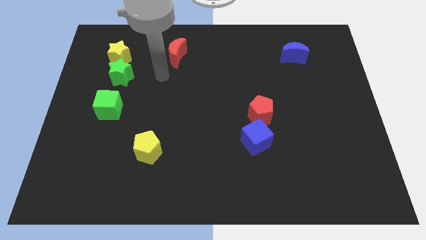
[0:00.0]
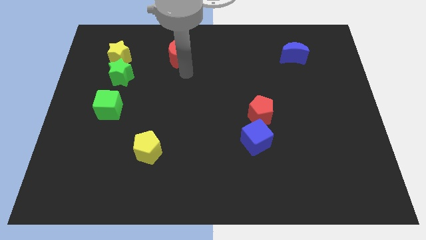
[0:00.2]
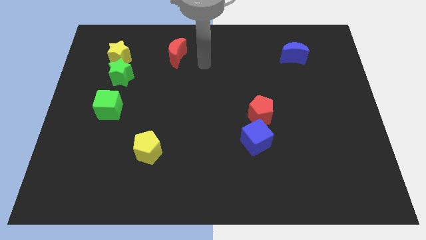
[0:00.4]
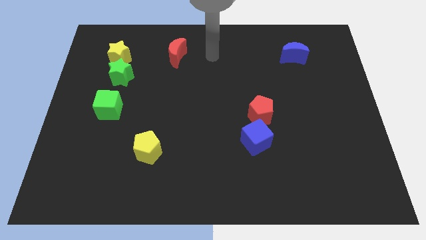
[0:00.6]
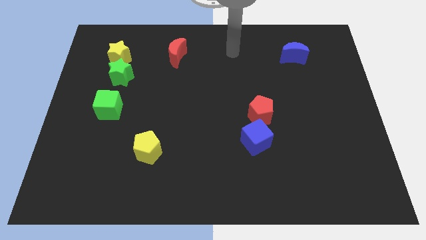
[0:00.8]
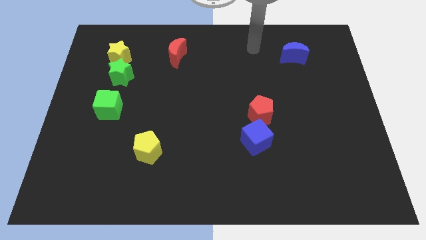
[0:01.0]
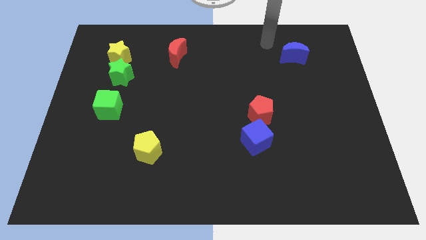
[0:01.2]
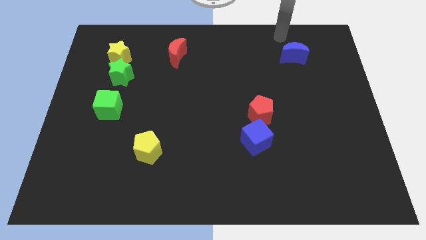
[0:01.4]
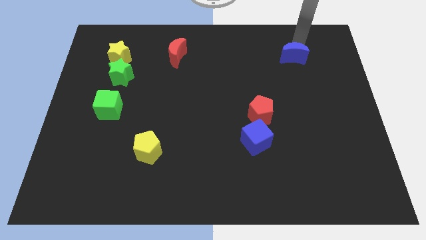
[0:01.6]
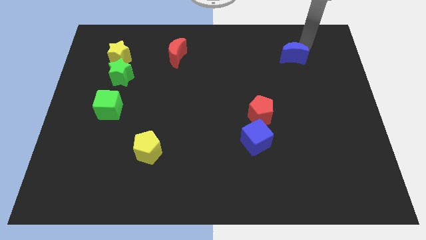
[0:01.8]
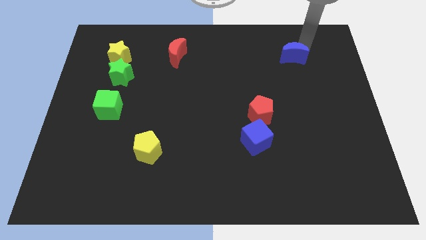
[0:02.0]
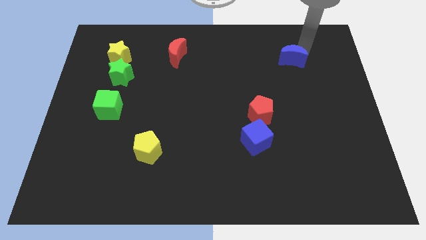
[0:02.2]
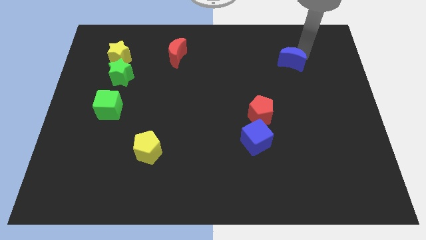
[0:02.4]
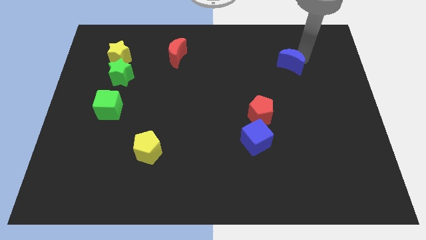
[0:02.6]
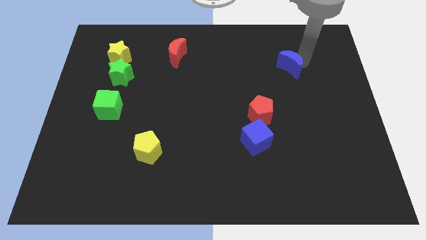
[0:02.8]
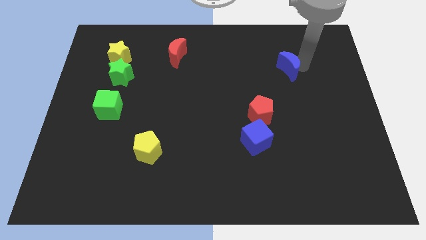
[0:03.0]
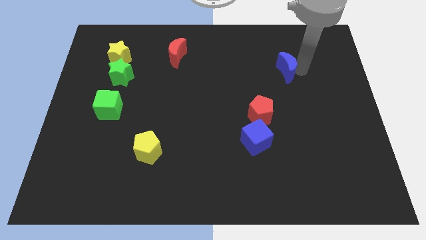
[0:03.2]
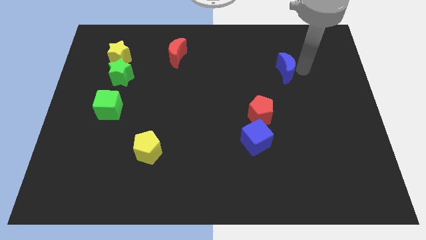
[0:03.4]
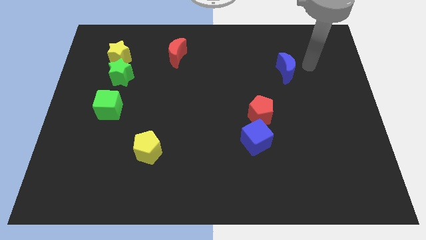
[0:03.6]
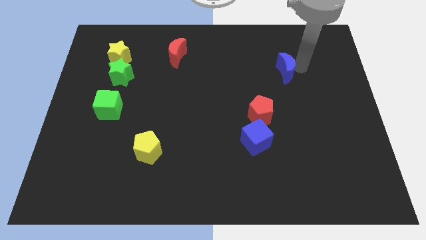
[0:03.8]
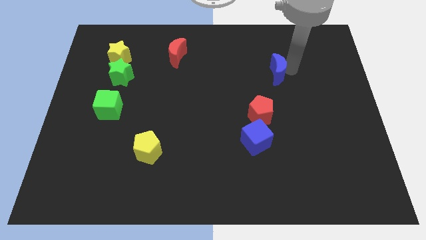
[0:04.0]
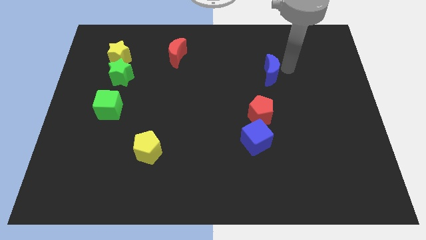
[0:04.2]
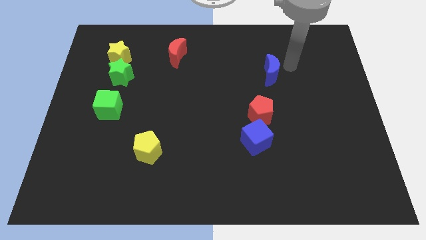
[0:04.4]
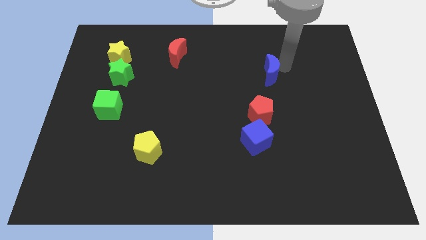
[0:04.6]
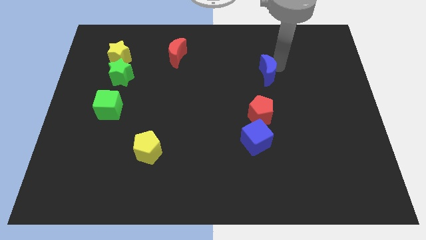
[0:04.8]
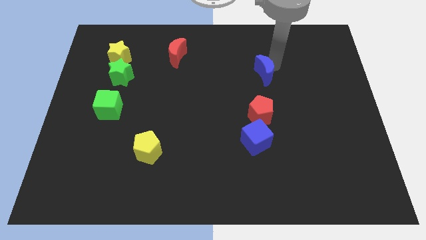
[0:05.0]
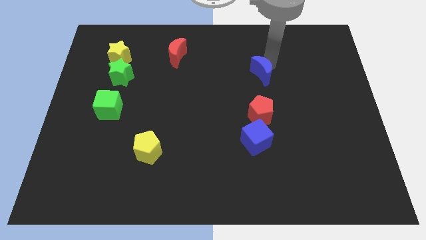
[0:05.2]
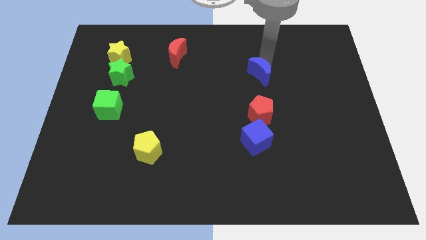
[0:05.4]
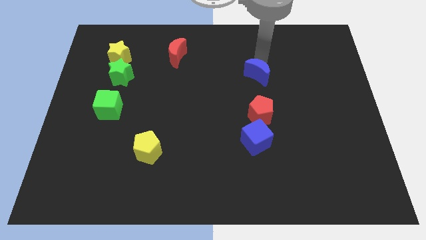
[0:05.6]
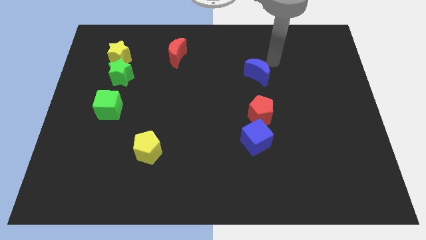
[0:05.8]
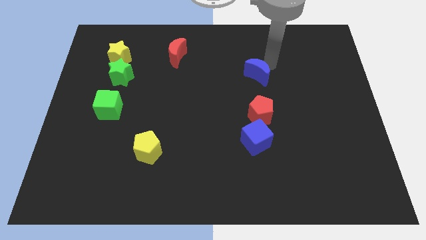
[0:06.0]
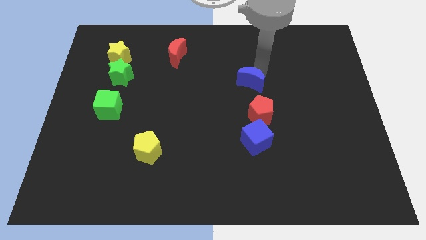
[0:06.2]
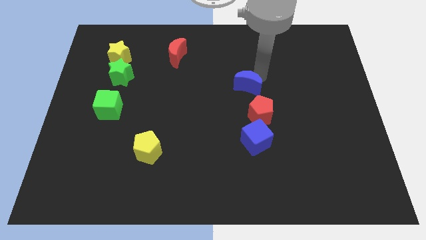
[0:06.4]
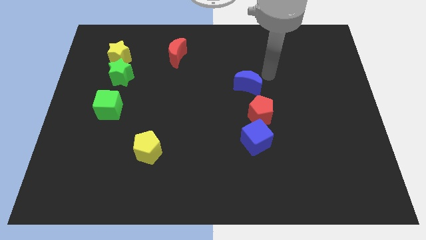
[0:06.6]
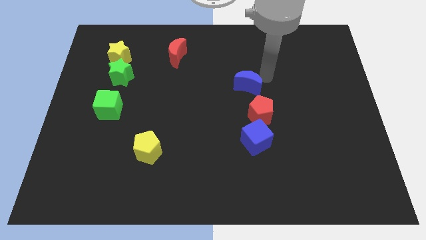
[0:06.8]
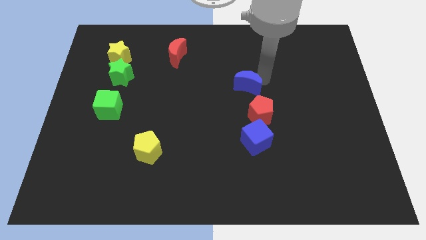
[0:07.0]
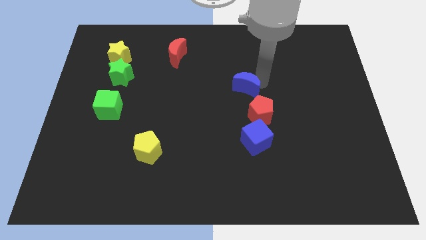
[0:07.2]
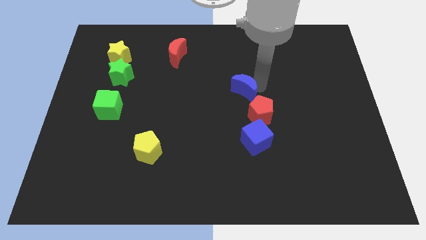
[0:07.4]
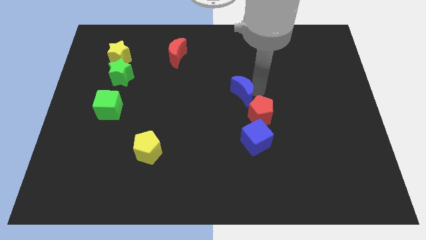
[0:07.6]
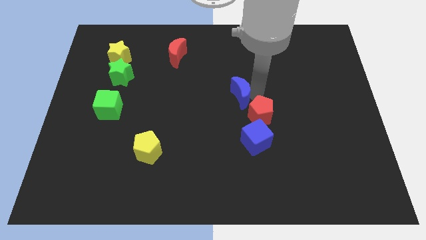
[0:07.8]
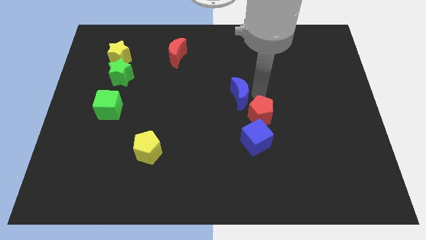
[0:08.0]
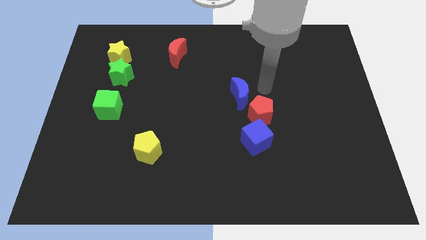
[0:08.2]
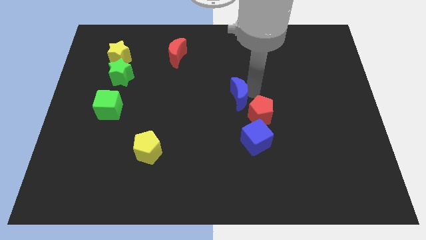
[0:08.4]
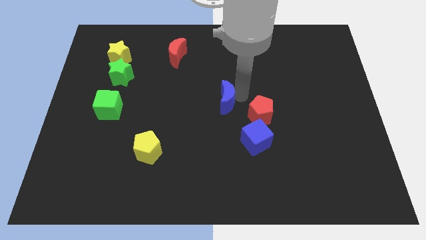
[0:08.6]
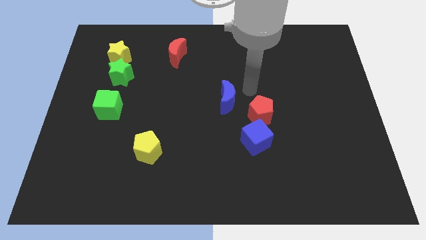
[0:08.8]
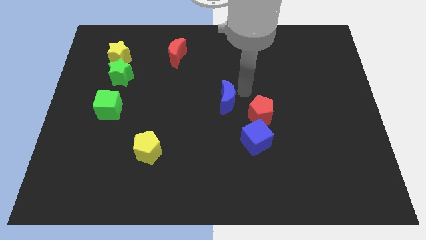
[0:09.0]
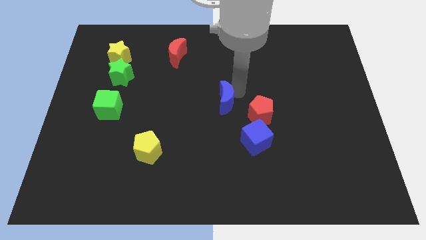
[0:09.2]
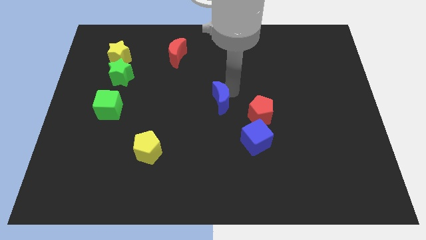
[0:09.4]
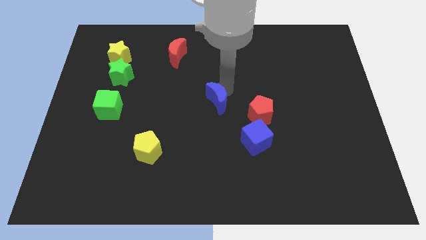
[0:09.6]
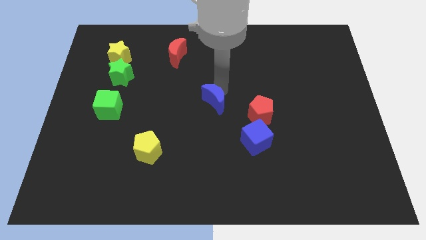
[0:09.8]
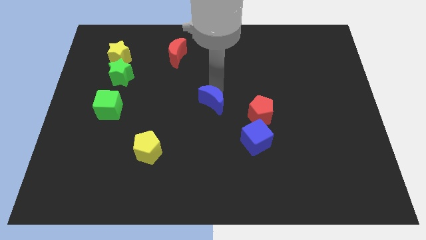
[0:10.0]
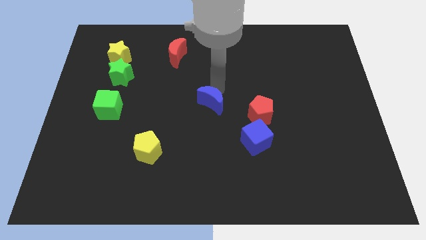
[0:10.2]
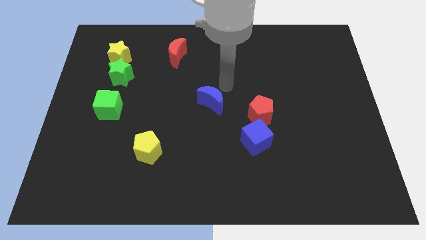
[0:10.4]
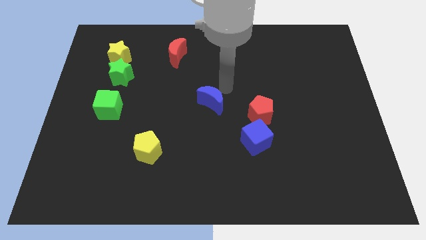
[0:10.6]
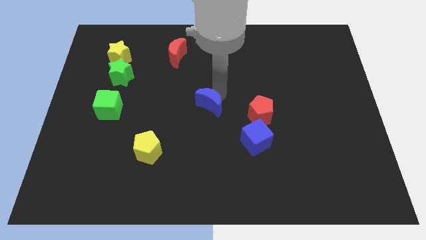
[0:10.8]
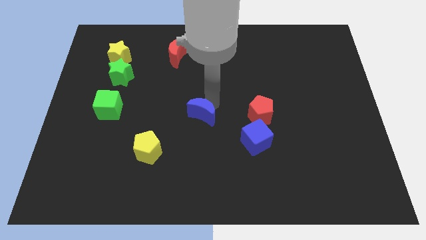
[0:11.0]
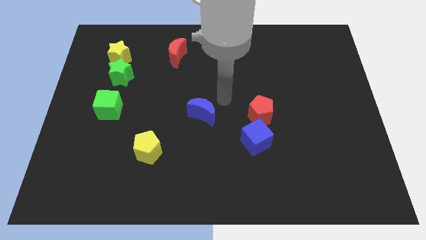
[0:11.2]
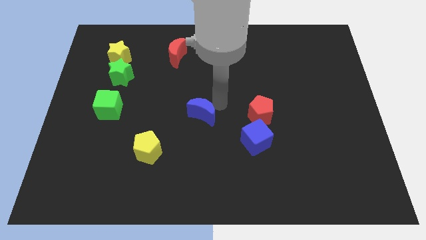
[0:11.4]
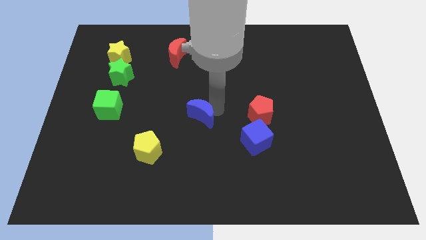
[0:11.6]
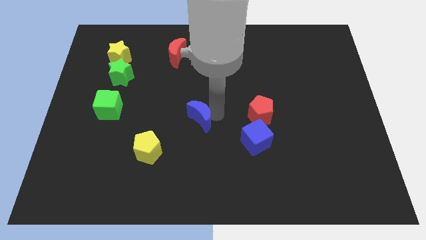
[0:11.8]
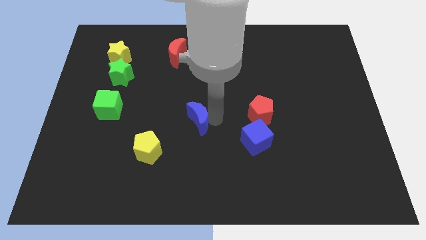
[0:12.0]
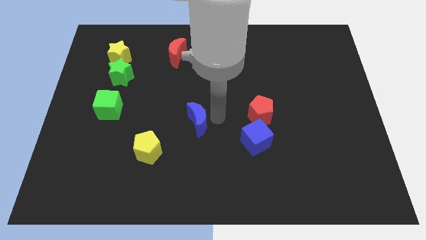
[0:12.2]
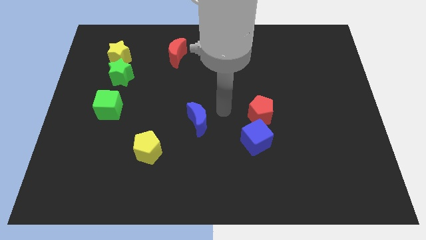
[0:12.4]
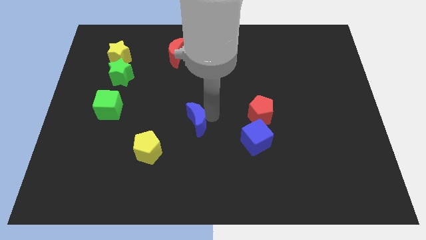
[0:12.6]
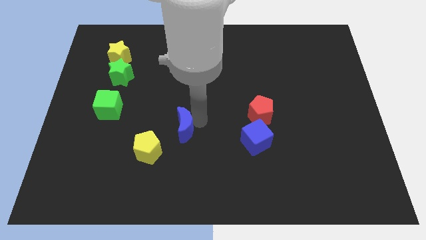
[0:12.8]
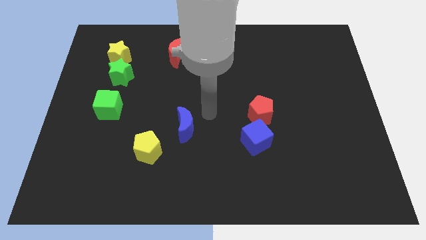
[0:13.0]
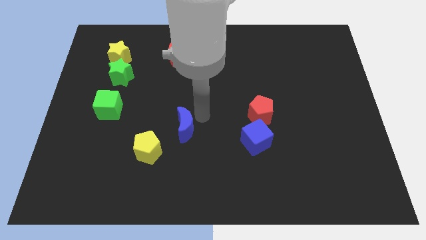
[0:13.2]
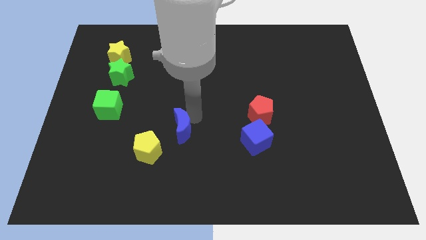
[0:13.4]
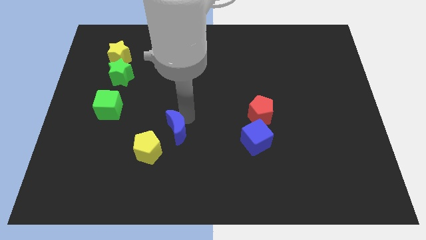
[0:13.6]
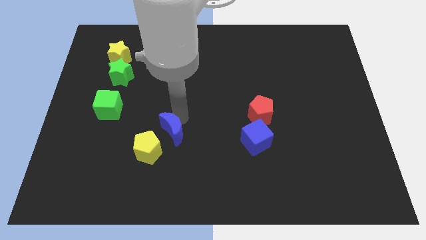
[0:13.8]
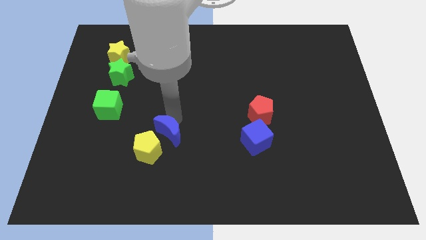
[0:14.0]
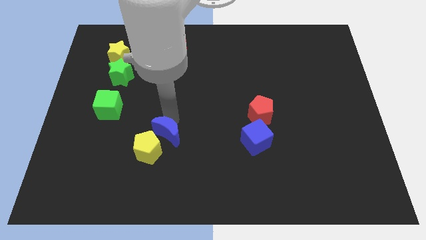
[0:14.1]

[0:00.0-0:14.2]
move the blue moon towards the yellow pentagon
